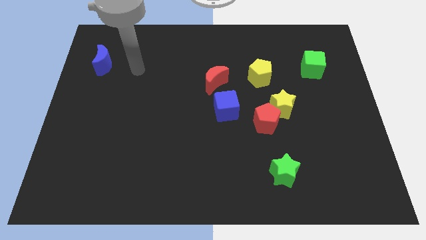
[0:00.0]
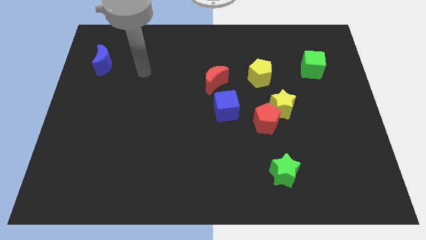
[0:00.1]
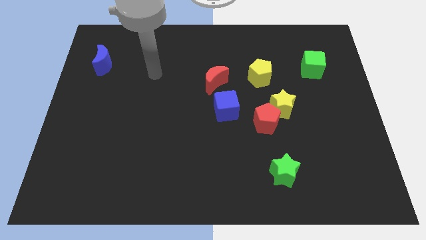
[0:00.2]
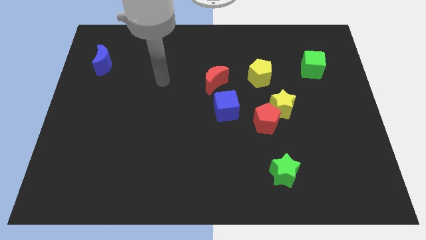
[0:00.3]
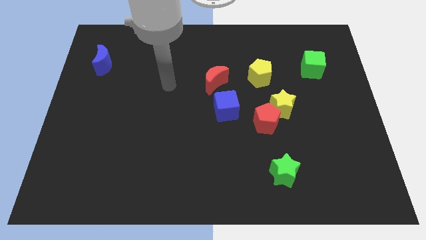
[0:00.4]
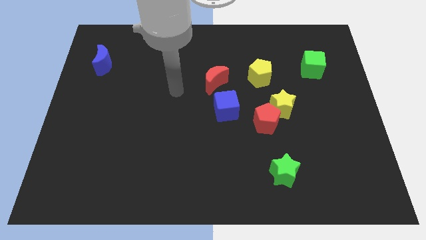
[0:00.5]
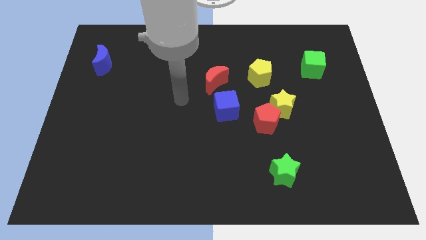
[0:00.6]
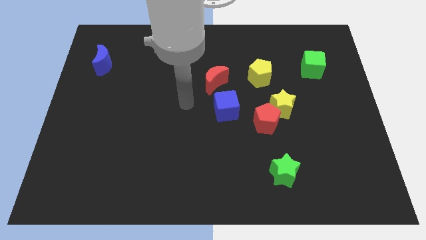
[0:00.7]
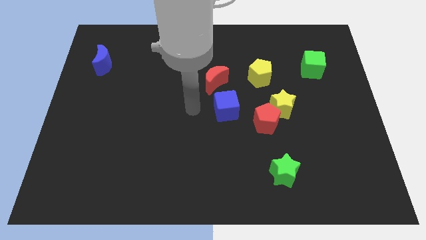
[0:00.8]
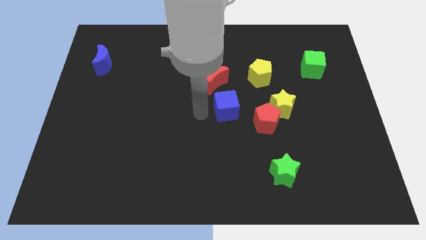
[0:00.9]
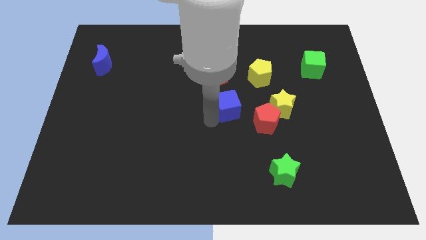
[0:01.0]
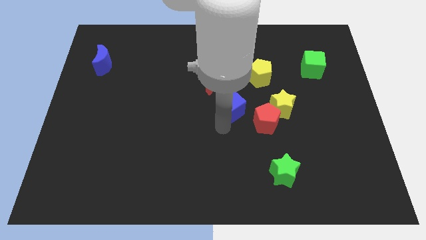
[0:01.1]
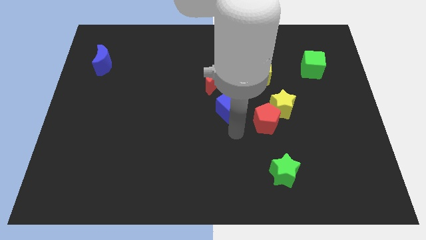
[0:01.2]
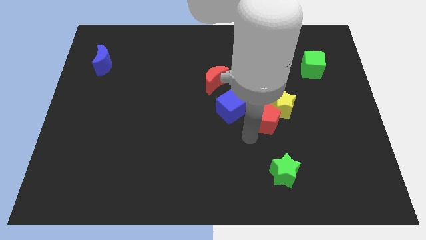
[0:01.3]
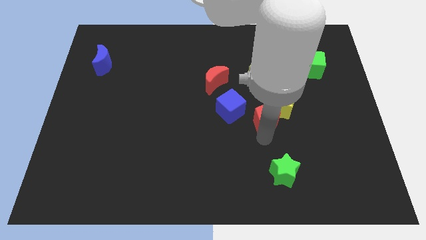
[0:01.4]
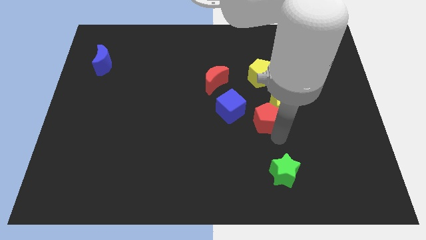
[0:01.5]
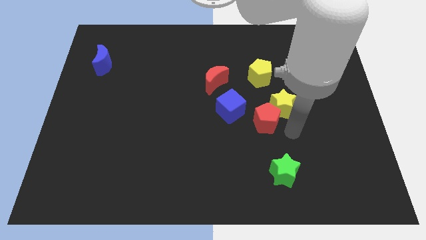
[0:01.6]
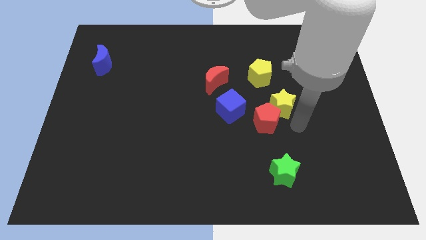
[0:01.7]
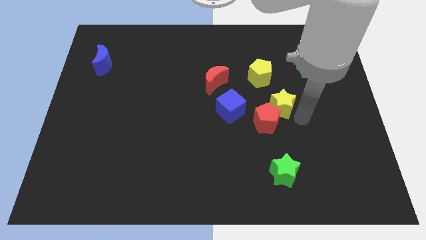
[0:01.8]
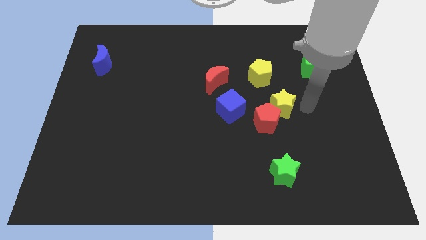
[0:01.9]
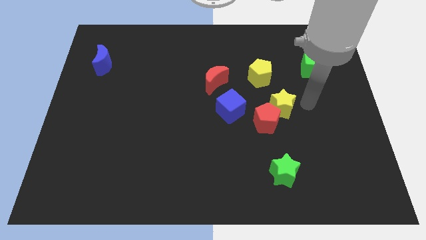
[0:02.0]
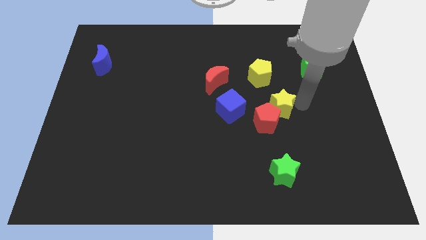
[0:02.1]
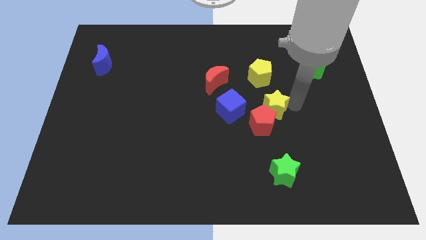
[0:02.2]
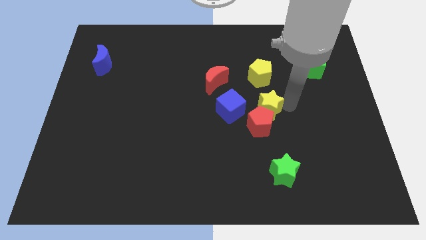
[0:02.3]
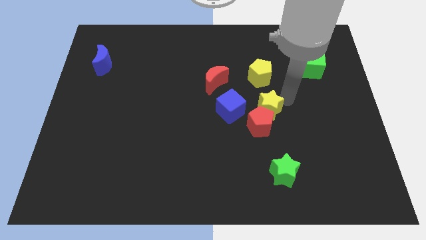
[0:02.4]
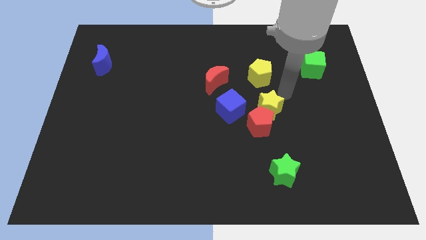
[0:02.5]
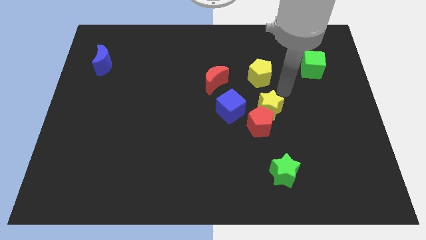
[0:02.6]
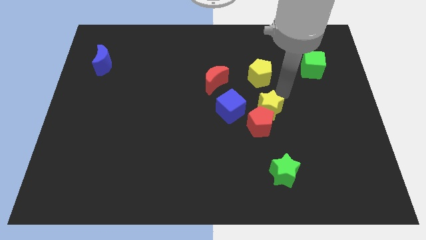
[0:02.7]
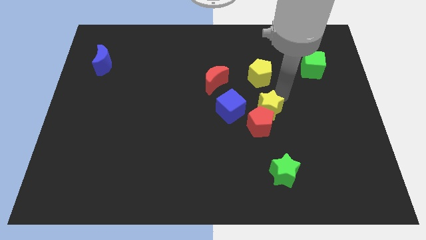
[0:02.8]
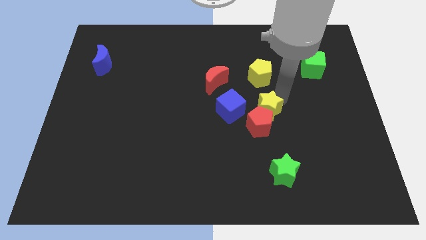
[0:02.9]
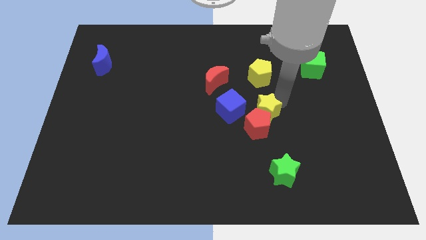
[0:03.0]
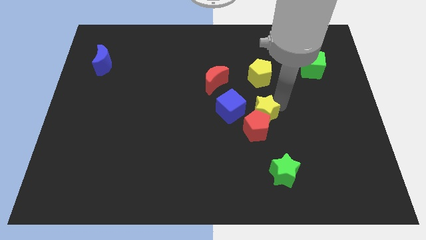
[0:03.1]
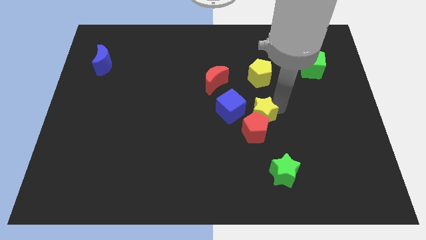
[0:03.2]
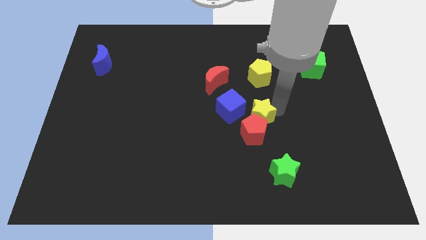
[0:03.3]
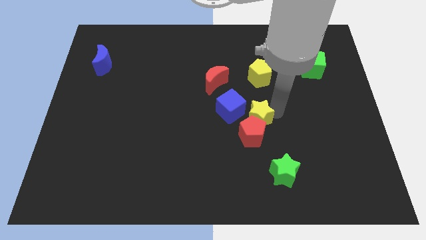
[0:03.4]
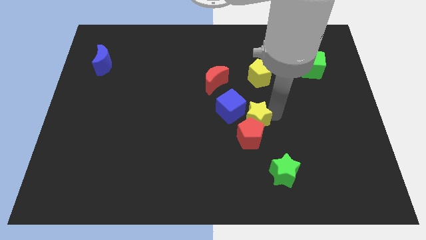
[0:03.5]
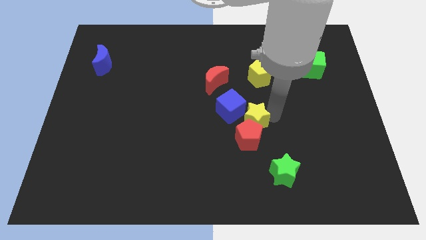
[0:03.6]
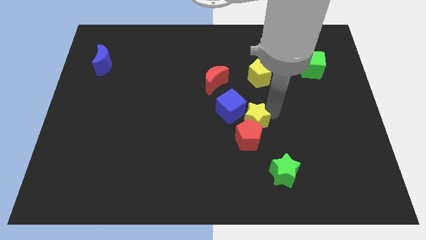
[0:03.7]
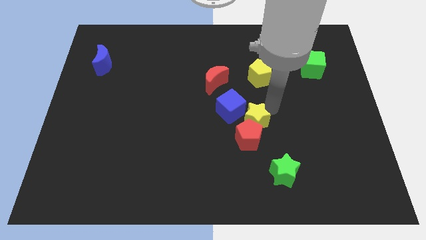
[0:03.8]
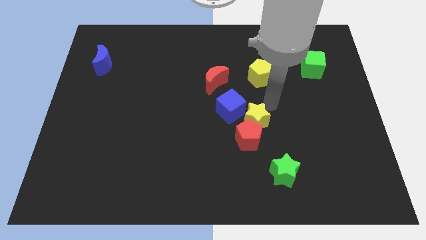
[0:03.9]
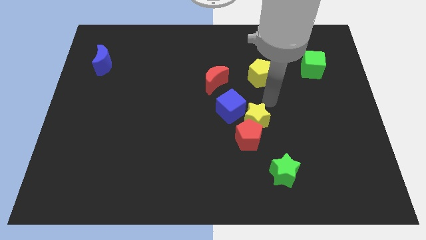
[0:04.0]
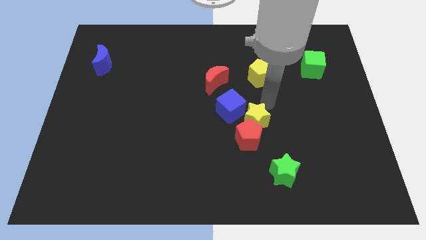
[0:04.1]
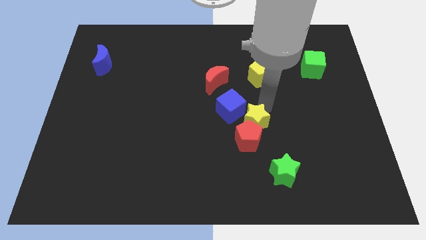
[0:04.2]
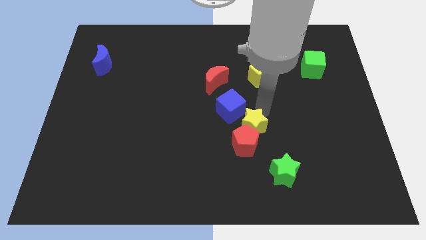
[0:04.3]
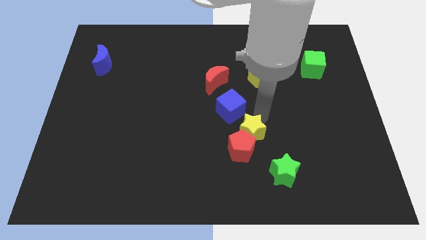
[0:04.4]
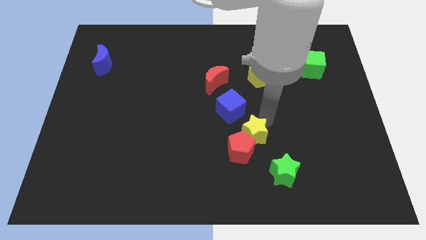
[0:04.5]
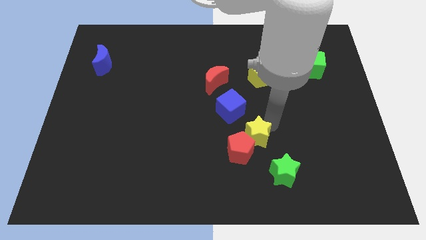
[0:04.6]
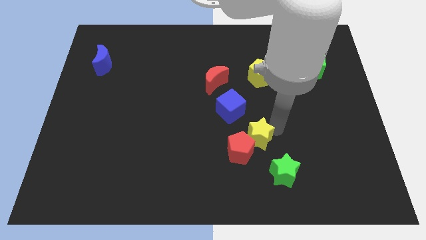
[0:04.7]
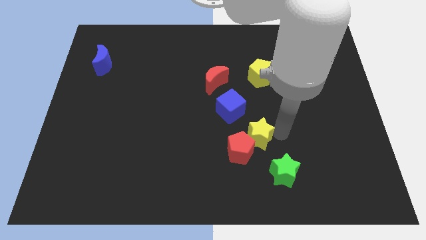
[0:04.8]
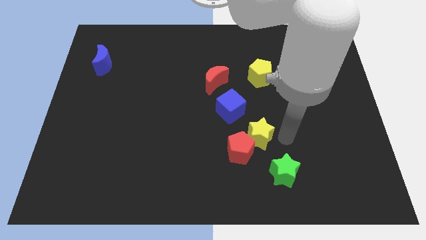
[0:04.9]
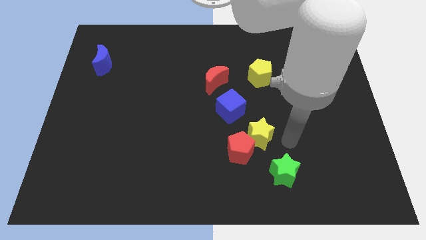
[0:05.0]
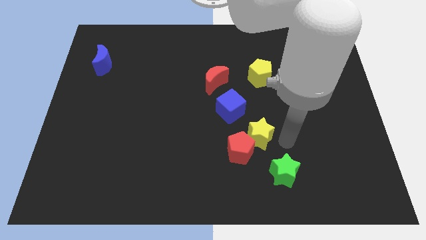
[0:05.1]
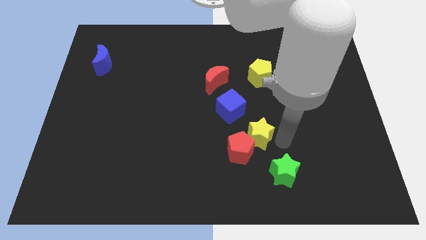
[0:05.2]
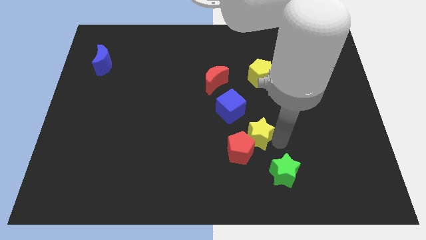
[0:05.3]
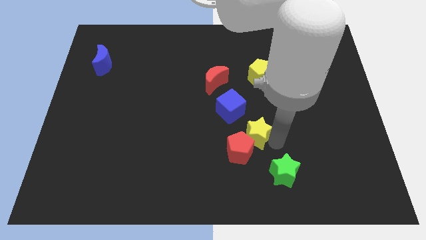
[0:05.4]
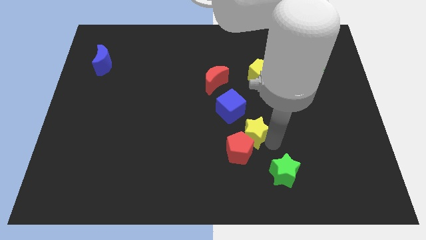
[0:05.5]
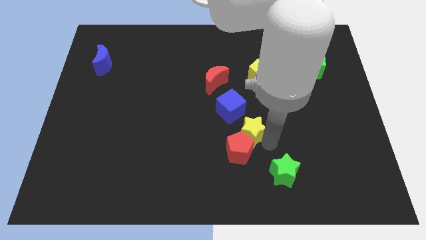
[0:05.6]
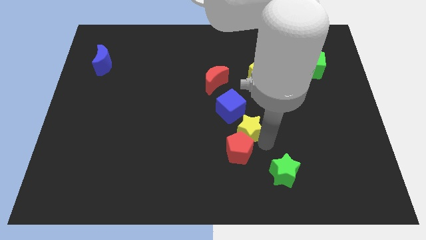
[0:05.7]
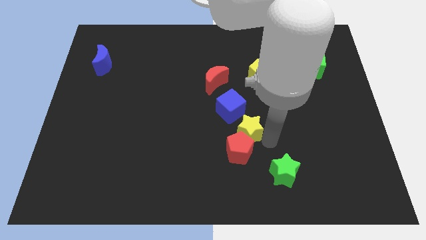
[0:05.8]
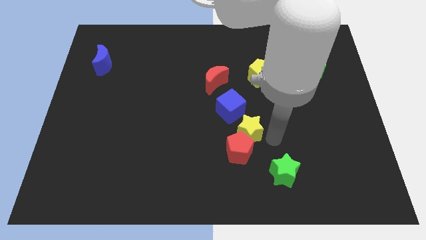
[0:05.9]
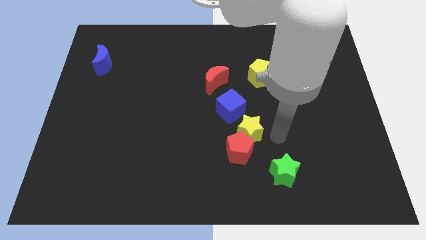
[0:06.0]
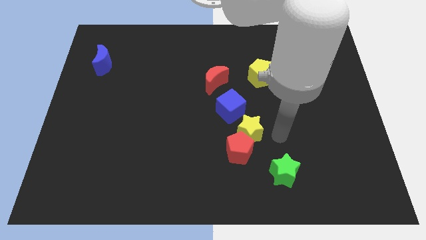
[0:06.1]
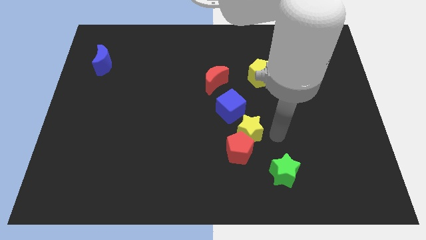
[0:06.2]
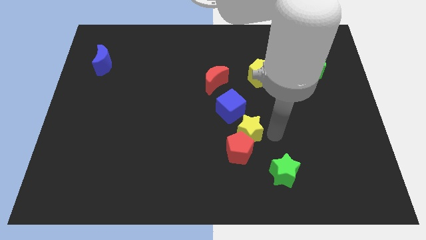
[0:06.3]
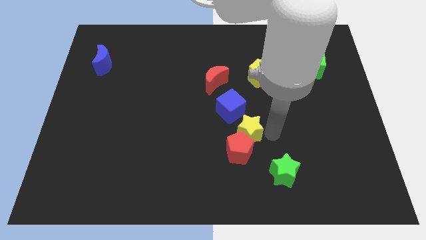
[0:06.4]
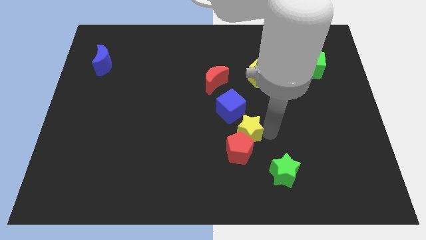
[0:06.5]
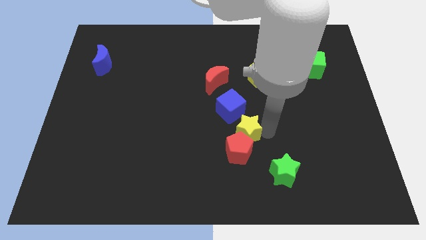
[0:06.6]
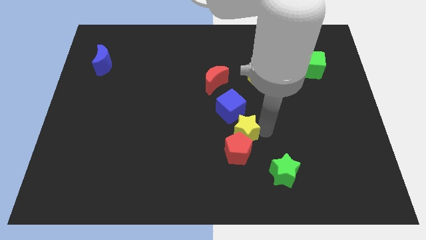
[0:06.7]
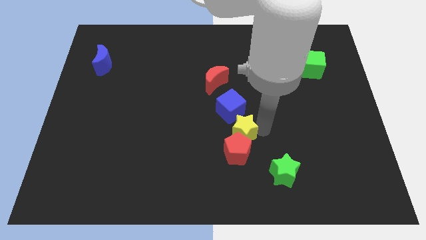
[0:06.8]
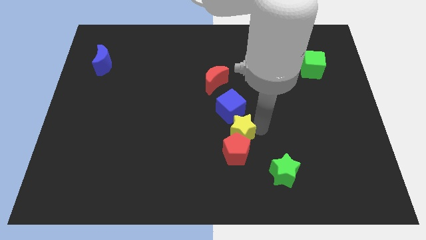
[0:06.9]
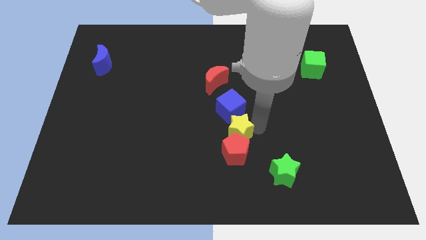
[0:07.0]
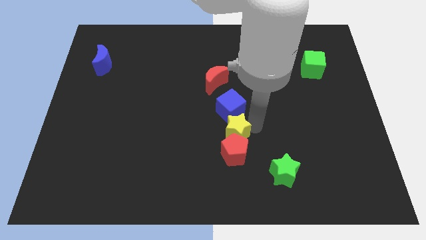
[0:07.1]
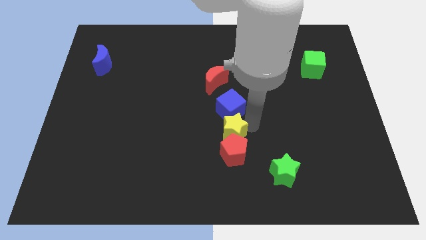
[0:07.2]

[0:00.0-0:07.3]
push the yellow star to the bottom left side of the blue cube
